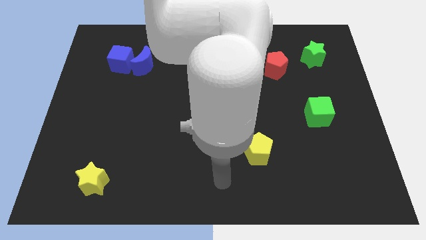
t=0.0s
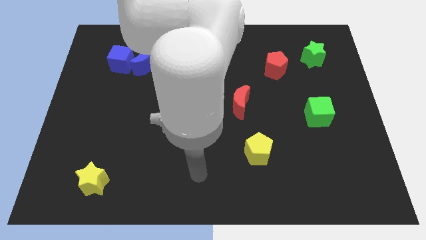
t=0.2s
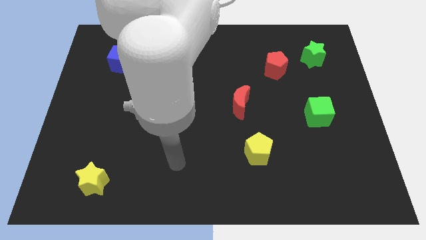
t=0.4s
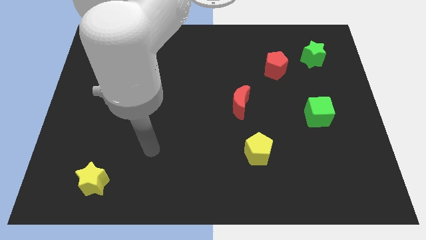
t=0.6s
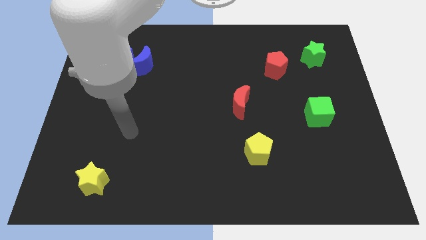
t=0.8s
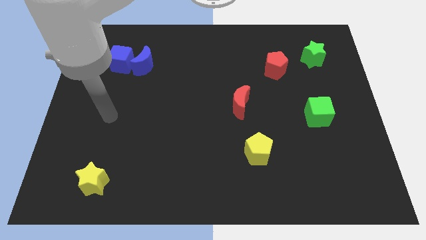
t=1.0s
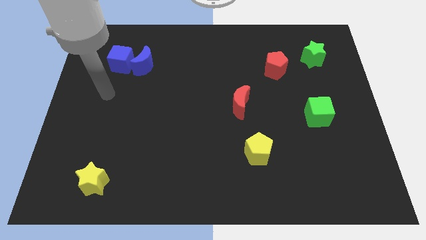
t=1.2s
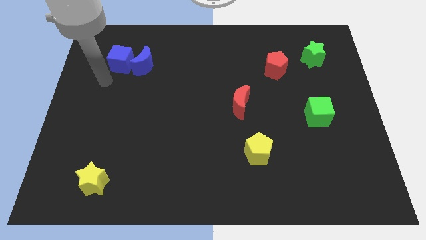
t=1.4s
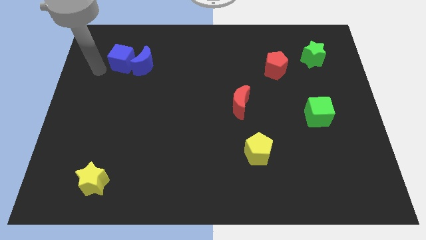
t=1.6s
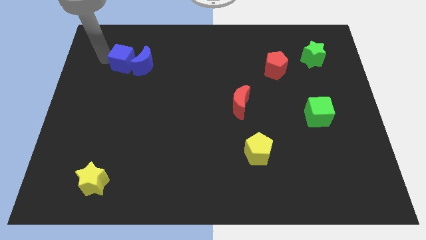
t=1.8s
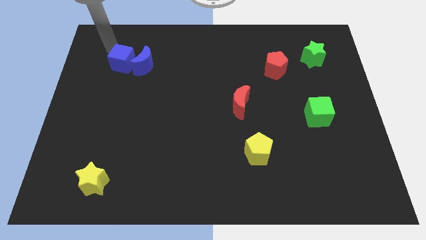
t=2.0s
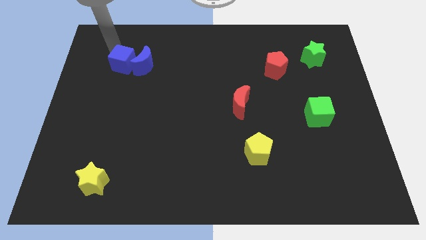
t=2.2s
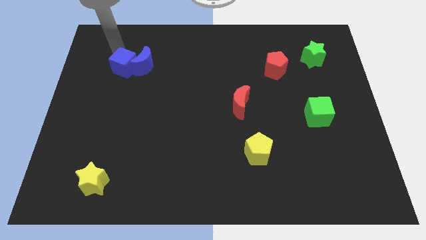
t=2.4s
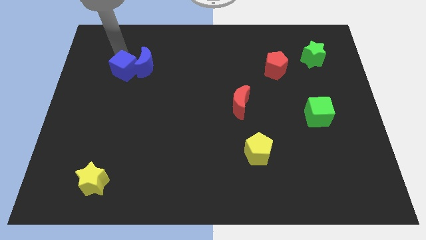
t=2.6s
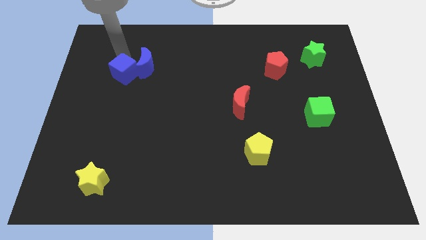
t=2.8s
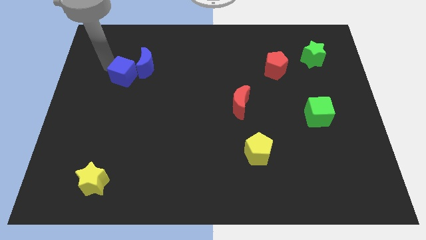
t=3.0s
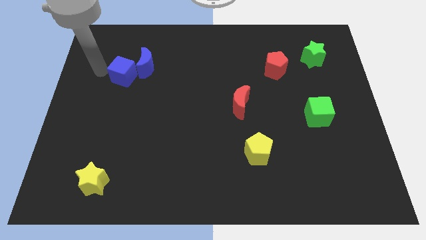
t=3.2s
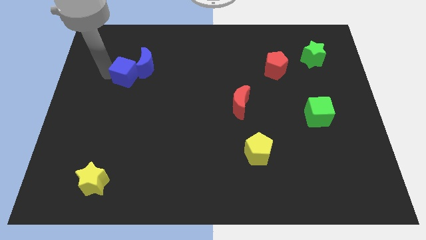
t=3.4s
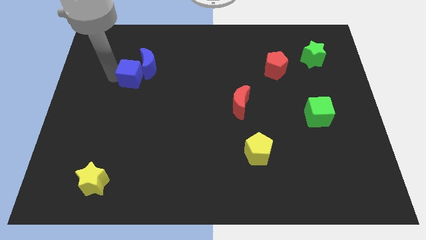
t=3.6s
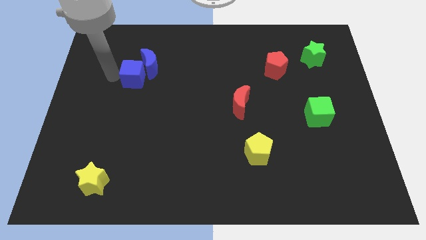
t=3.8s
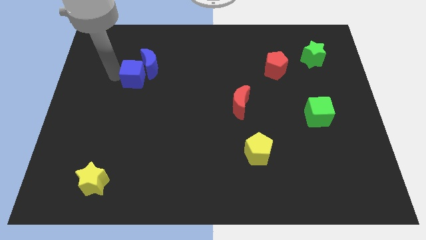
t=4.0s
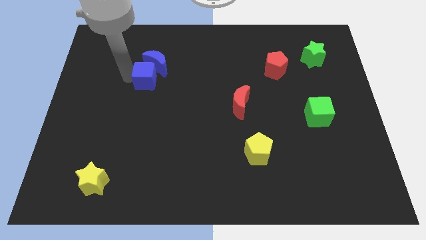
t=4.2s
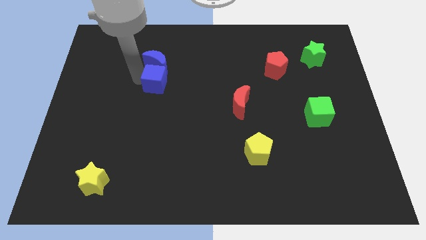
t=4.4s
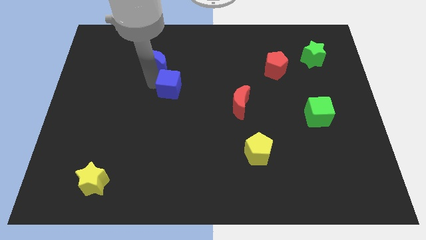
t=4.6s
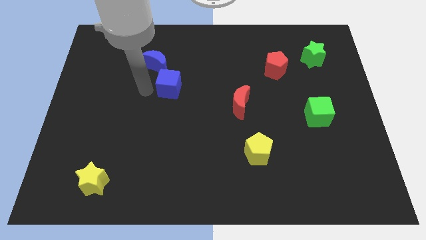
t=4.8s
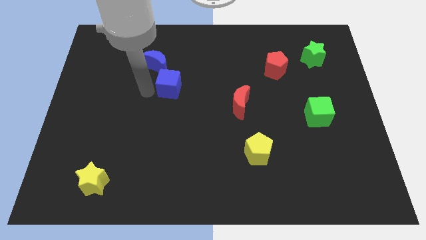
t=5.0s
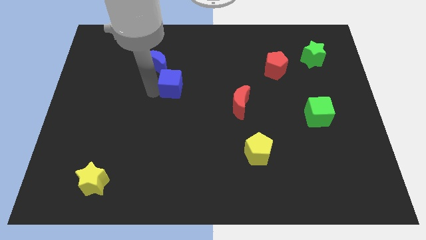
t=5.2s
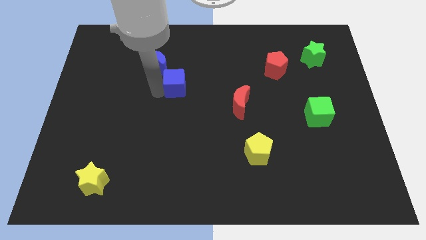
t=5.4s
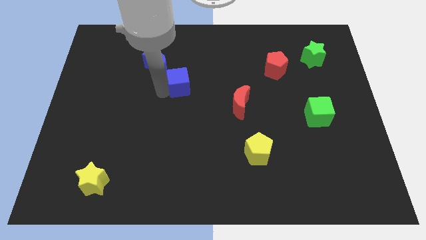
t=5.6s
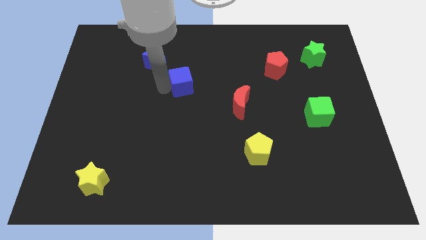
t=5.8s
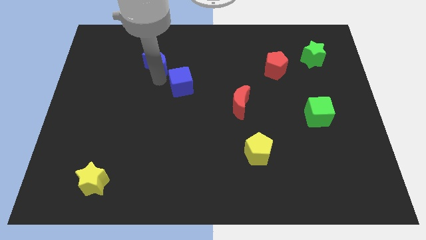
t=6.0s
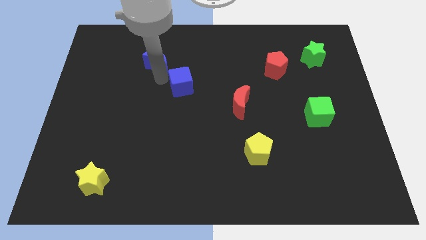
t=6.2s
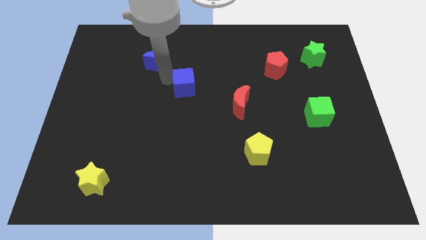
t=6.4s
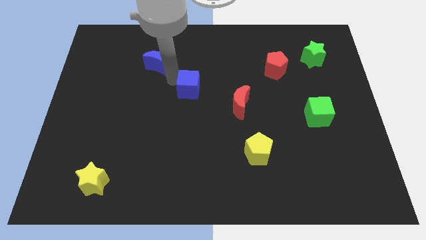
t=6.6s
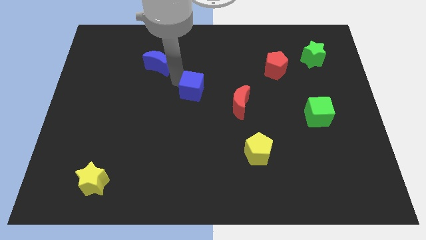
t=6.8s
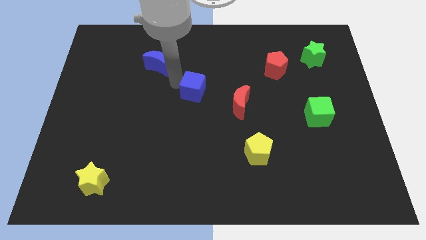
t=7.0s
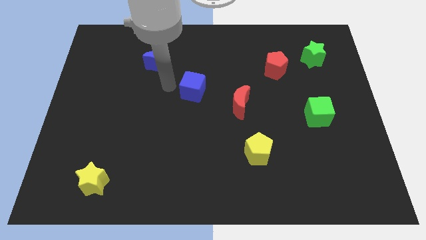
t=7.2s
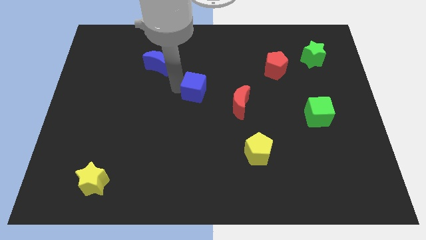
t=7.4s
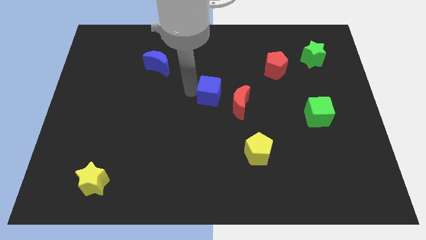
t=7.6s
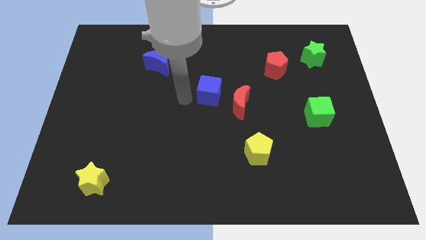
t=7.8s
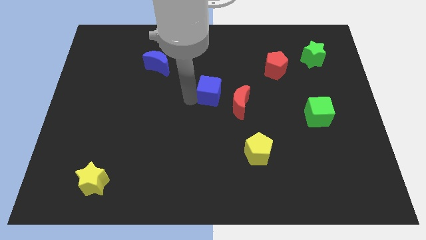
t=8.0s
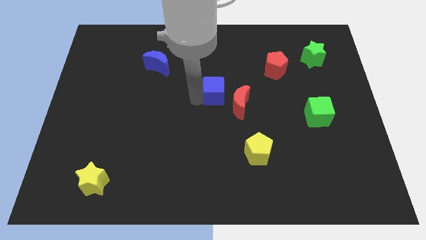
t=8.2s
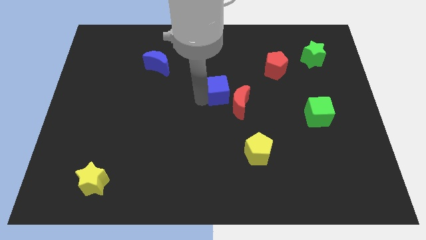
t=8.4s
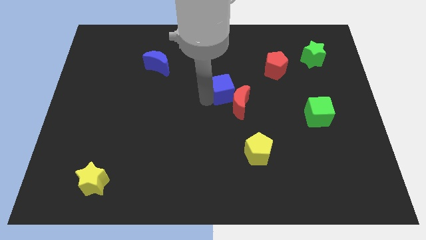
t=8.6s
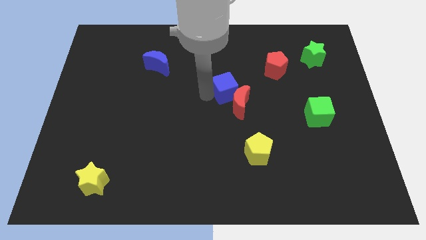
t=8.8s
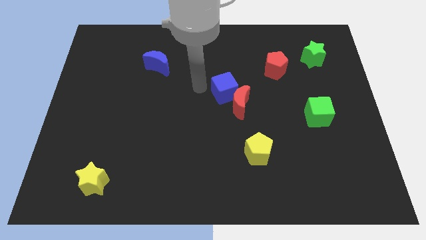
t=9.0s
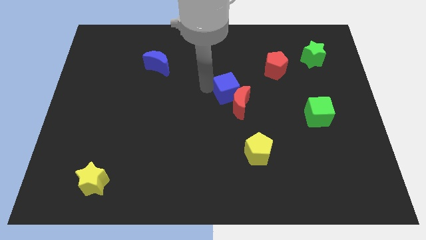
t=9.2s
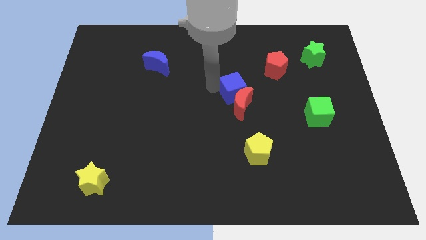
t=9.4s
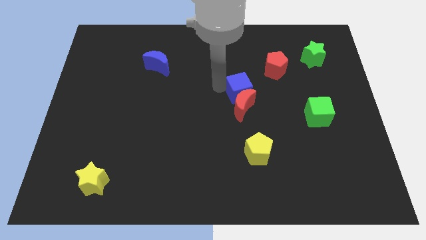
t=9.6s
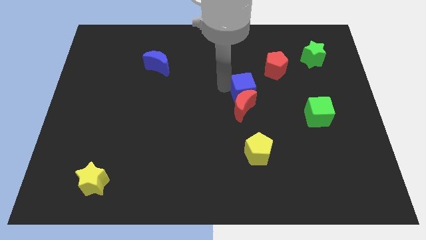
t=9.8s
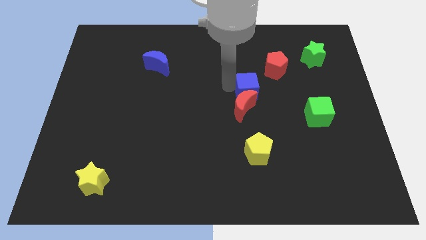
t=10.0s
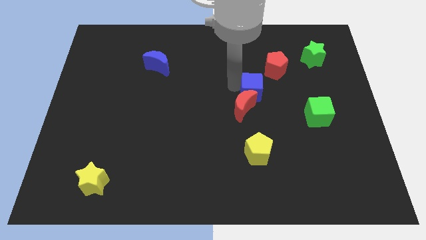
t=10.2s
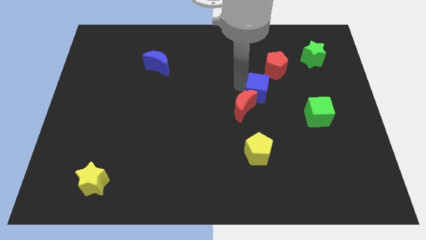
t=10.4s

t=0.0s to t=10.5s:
push the blue cube to the bottom side of the red pentagon

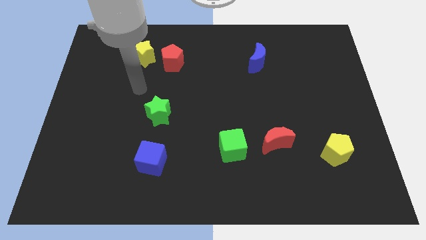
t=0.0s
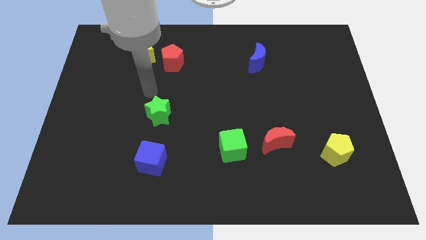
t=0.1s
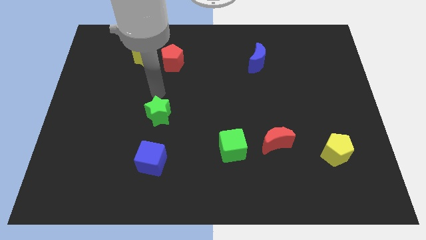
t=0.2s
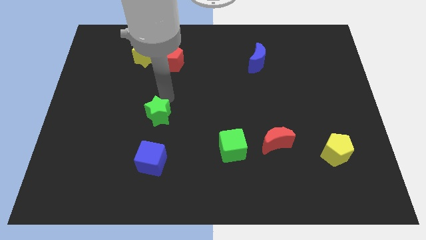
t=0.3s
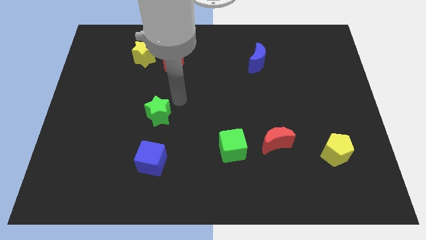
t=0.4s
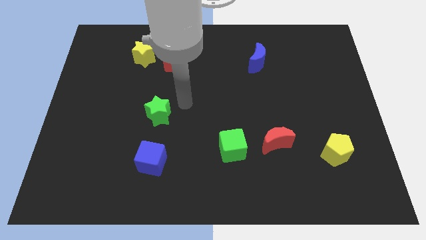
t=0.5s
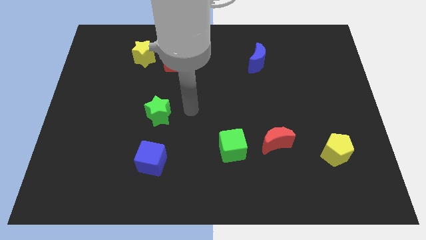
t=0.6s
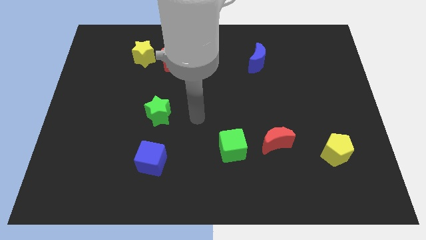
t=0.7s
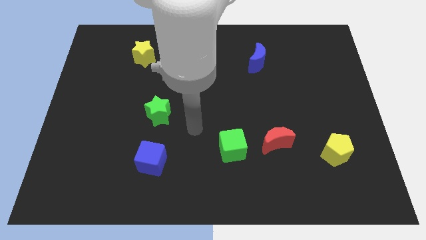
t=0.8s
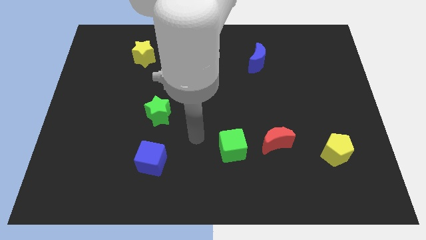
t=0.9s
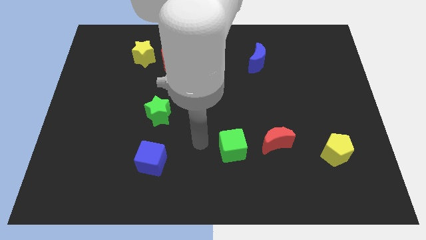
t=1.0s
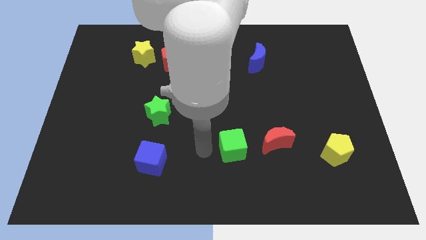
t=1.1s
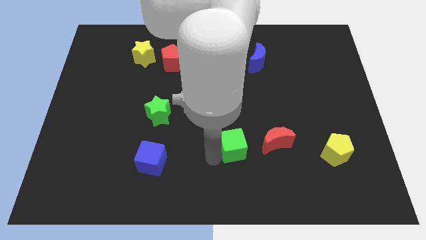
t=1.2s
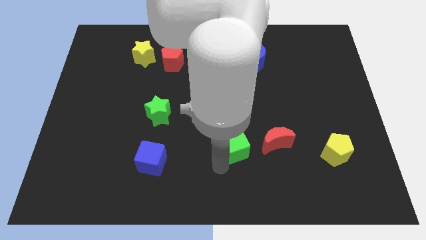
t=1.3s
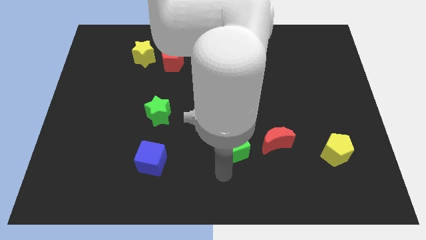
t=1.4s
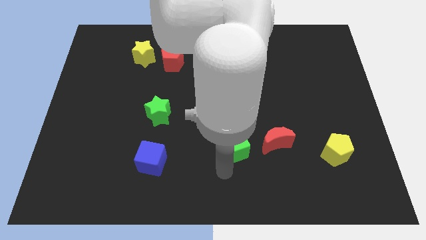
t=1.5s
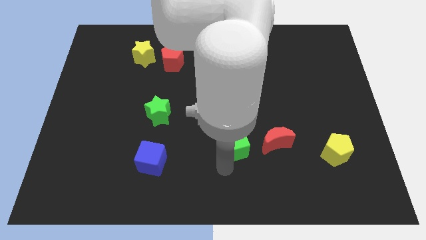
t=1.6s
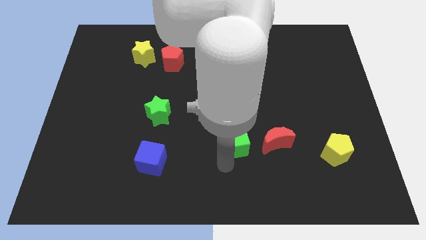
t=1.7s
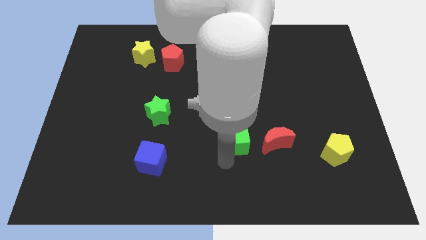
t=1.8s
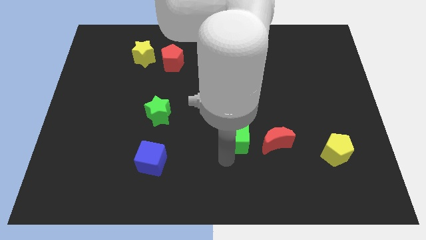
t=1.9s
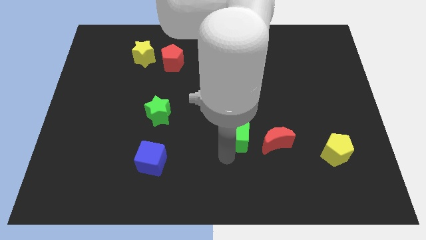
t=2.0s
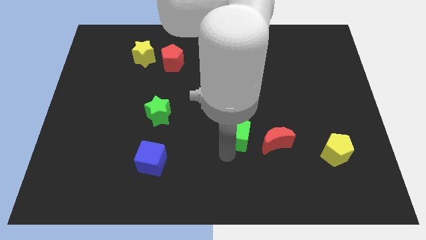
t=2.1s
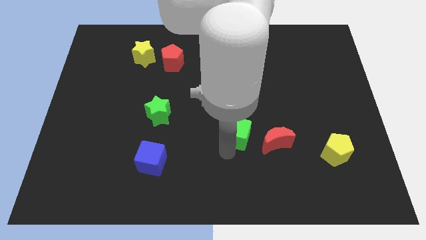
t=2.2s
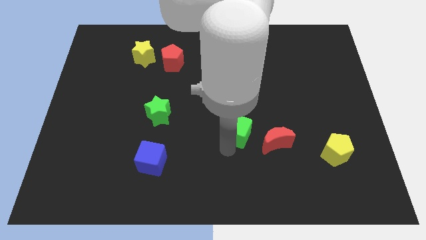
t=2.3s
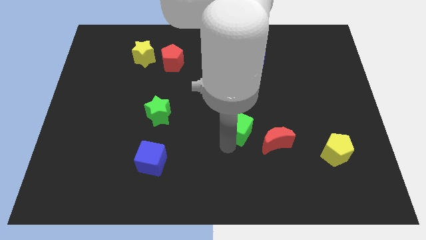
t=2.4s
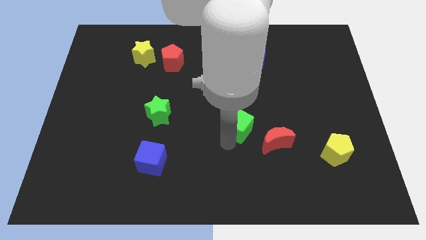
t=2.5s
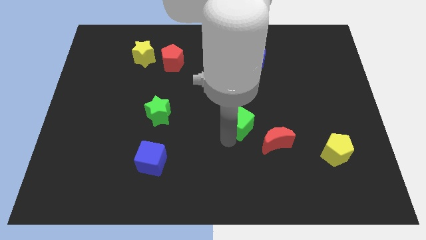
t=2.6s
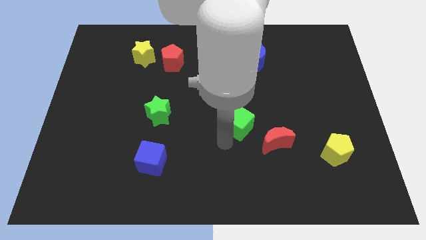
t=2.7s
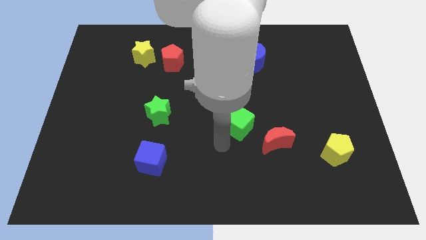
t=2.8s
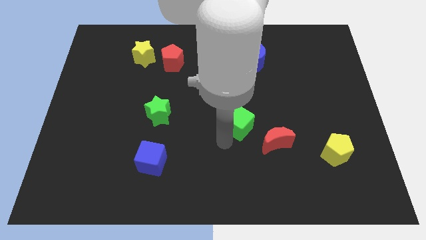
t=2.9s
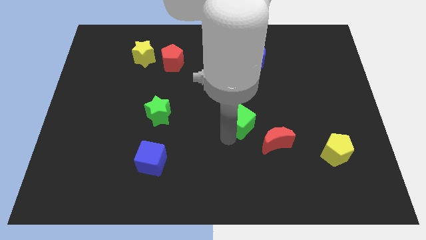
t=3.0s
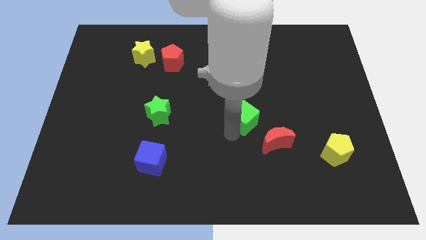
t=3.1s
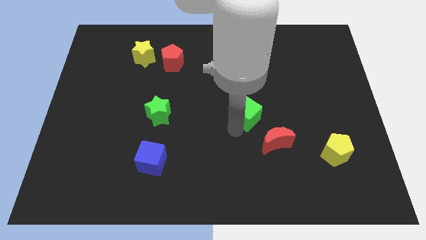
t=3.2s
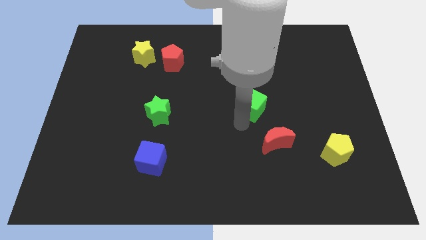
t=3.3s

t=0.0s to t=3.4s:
push the green cube to the bottom side of the blue moon
